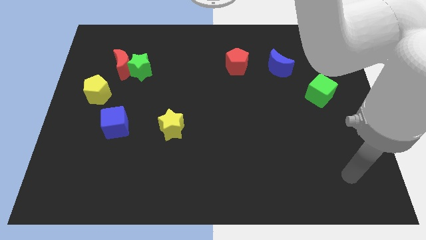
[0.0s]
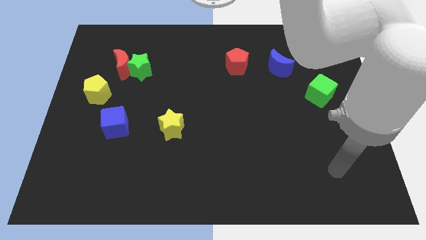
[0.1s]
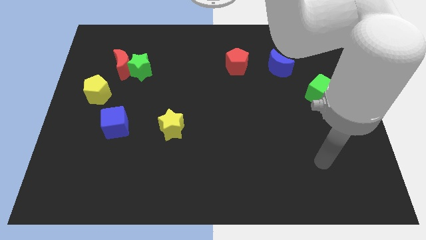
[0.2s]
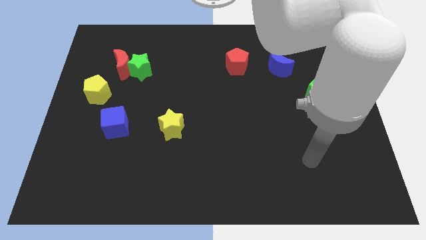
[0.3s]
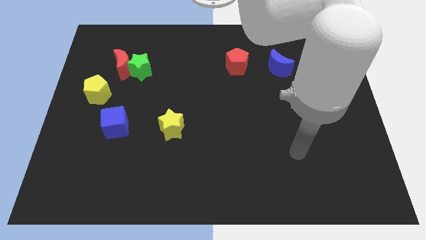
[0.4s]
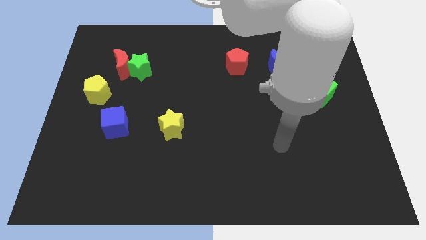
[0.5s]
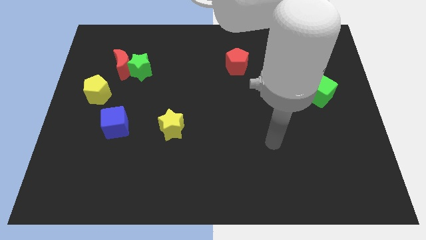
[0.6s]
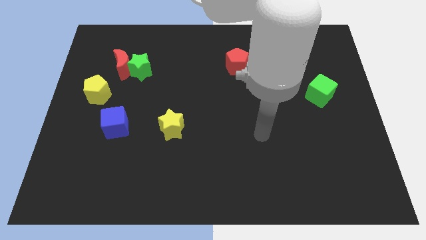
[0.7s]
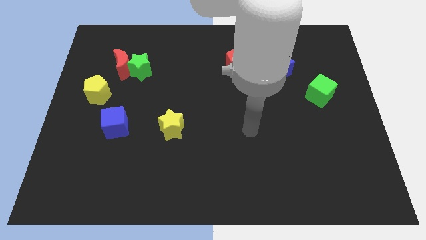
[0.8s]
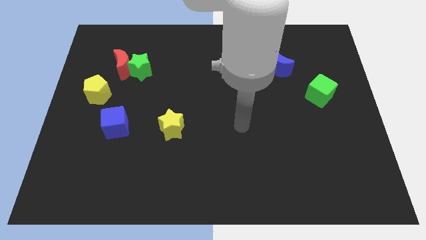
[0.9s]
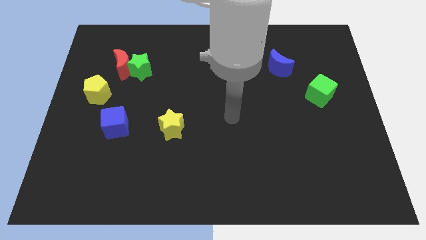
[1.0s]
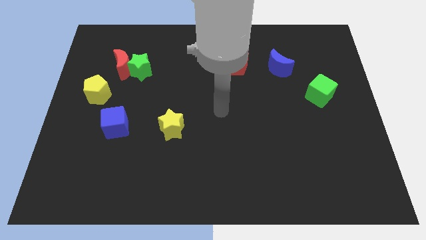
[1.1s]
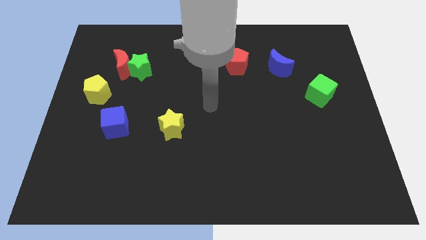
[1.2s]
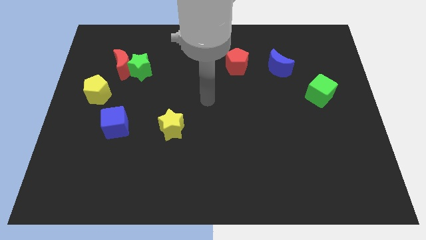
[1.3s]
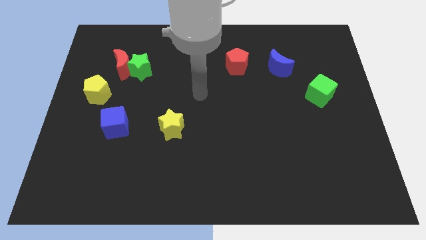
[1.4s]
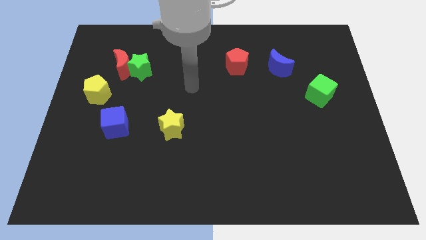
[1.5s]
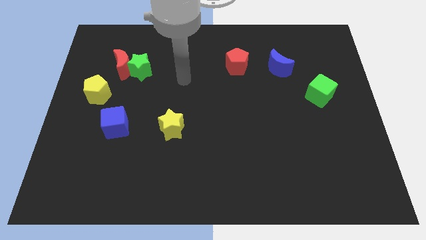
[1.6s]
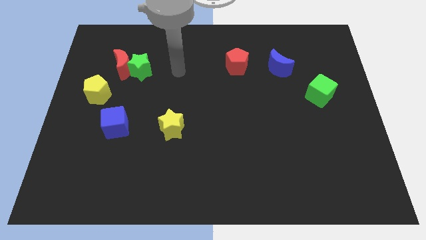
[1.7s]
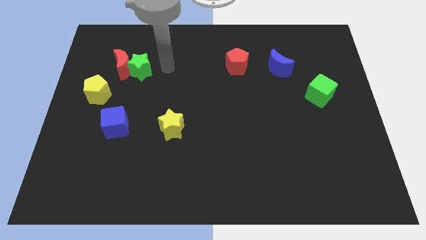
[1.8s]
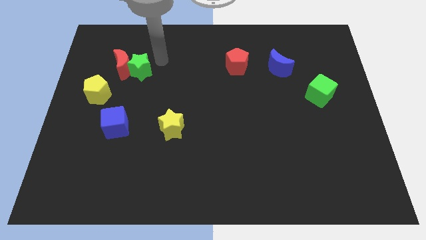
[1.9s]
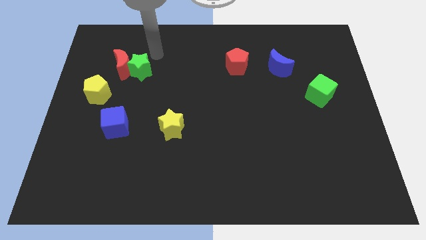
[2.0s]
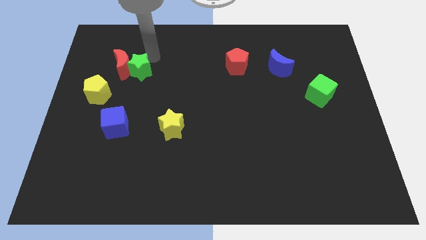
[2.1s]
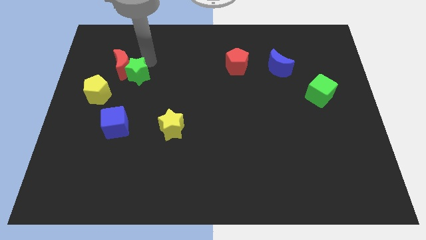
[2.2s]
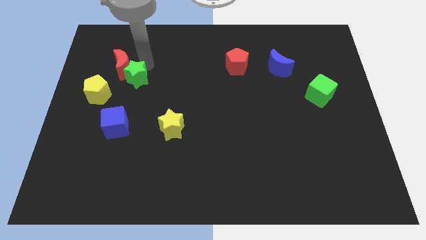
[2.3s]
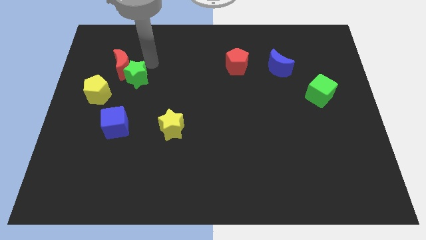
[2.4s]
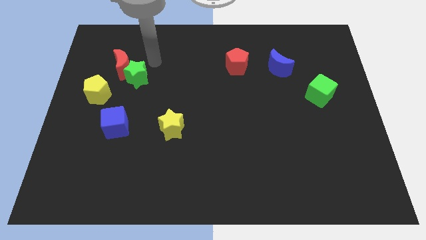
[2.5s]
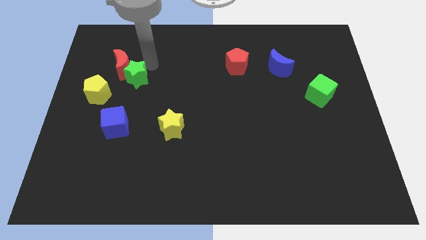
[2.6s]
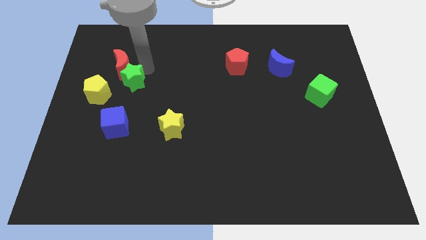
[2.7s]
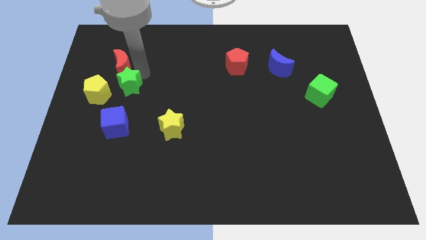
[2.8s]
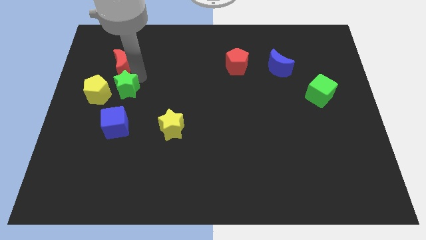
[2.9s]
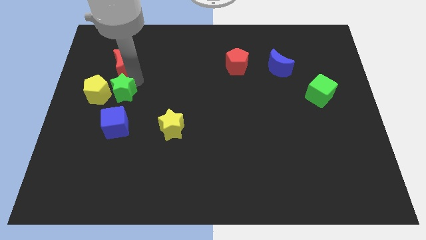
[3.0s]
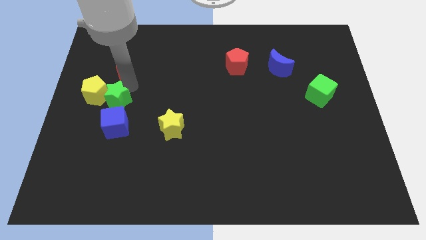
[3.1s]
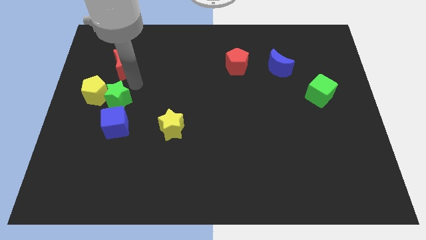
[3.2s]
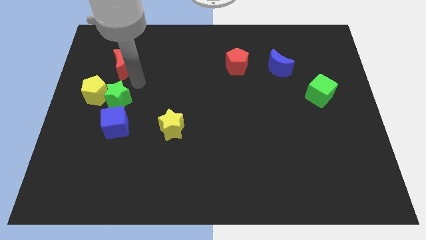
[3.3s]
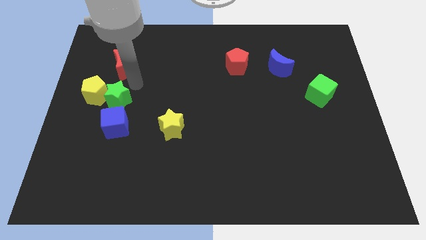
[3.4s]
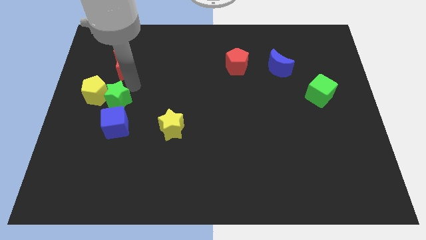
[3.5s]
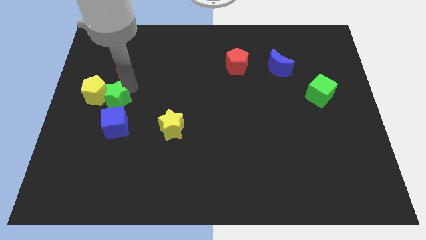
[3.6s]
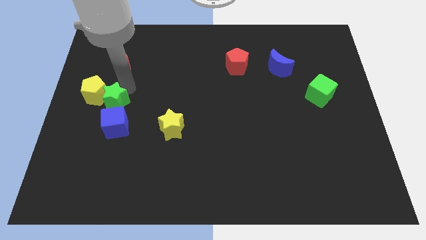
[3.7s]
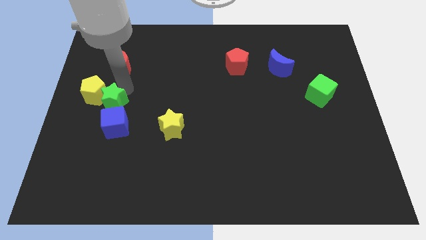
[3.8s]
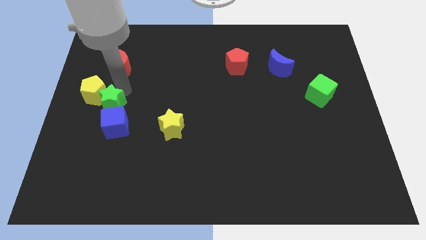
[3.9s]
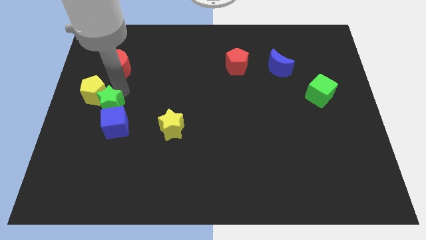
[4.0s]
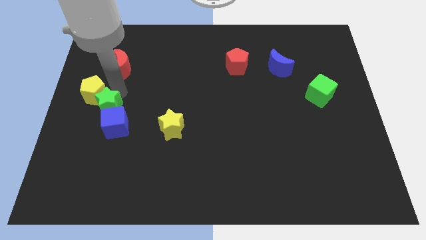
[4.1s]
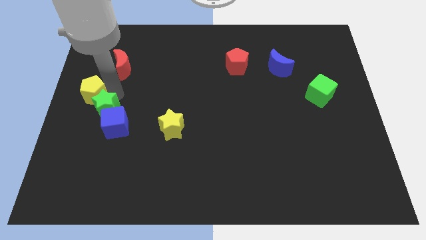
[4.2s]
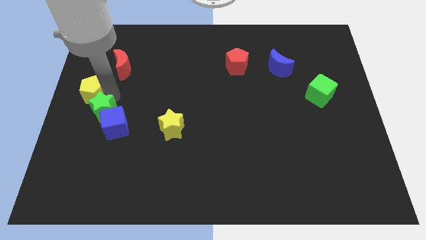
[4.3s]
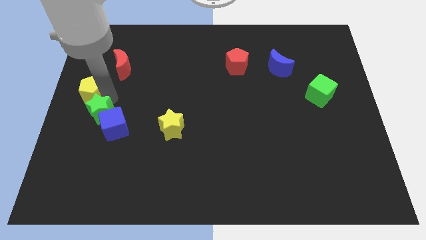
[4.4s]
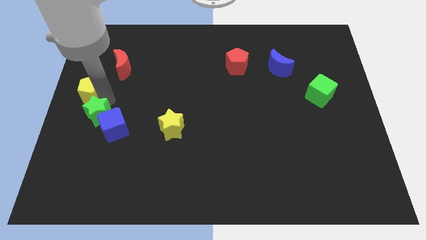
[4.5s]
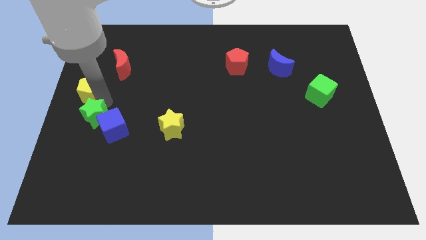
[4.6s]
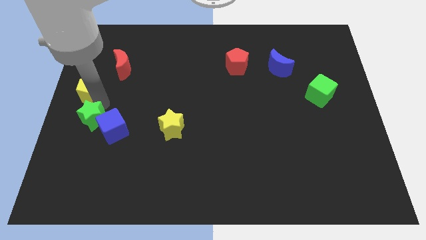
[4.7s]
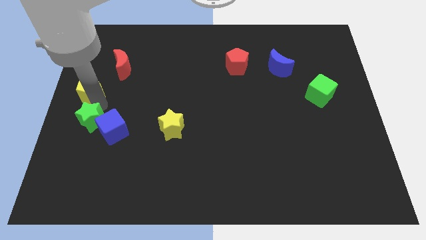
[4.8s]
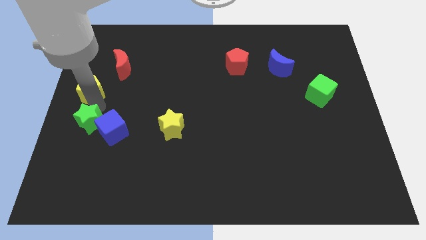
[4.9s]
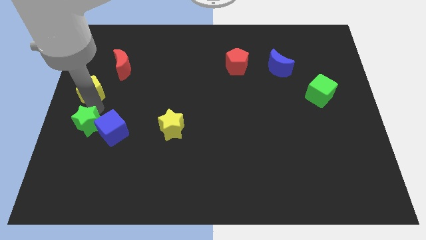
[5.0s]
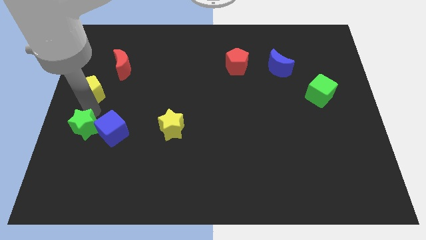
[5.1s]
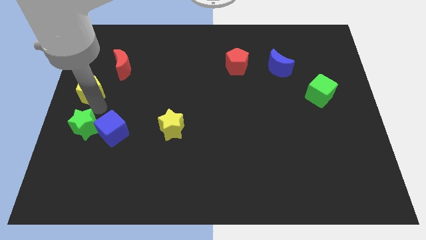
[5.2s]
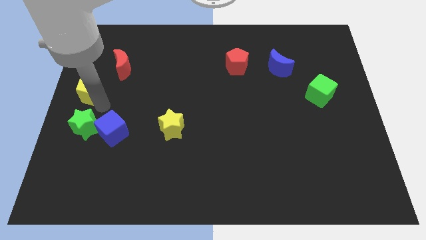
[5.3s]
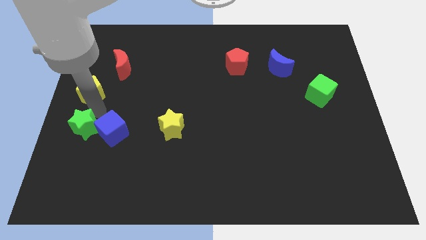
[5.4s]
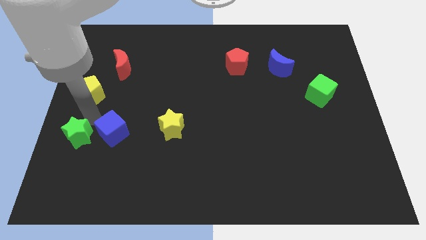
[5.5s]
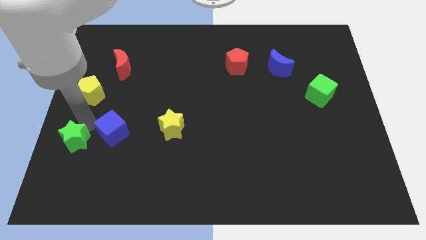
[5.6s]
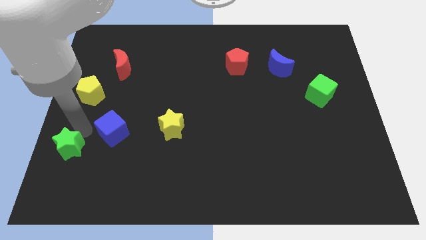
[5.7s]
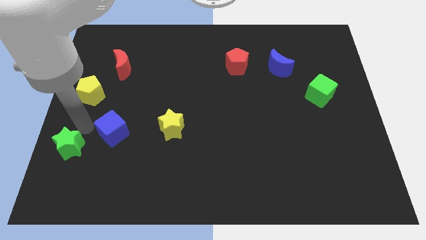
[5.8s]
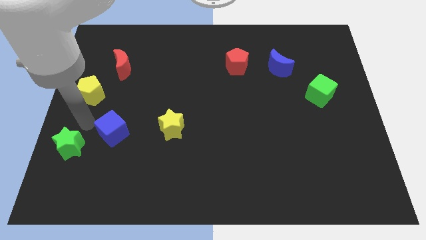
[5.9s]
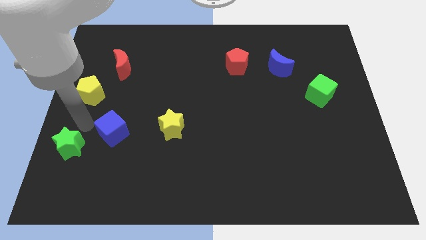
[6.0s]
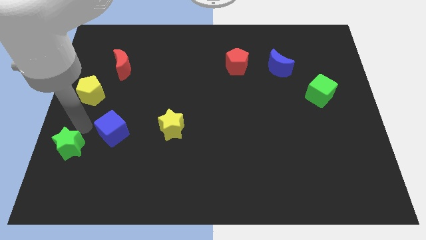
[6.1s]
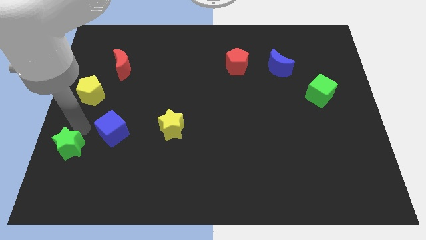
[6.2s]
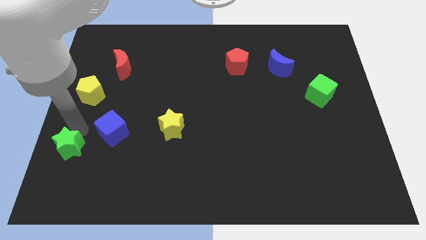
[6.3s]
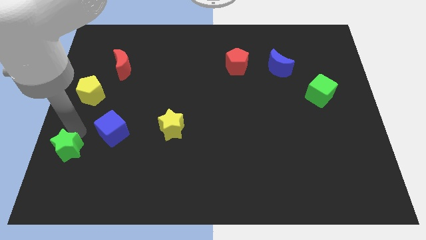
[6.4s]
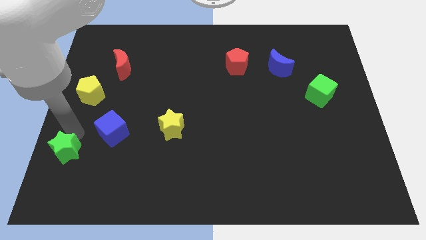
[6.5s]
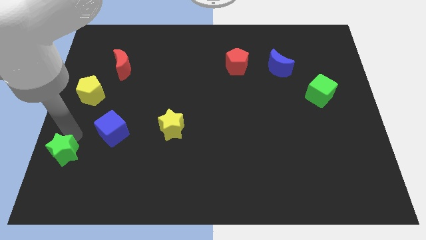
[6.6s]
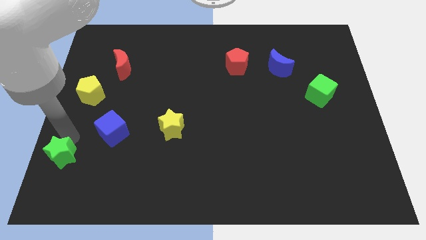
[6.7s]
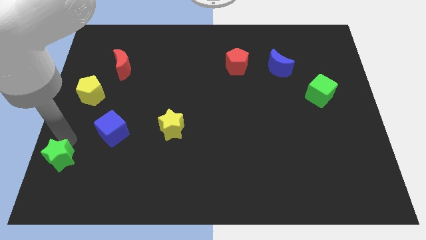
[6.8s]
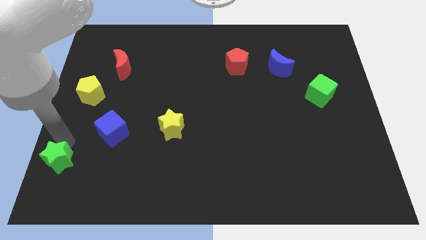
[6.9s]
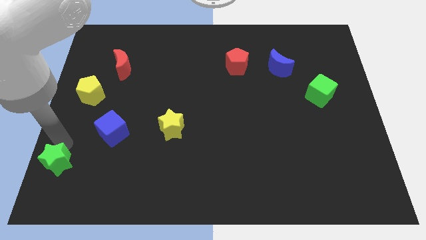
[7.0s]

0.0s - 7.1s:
push the green star to the bottom left
